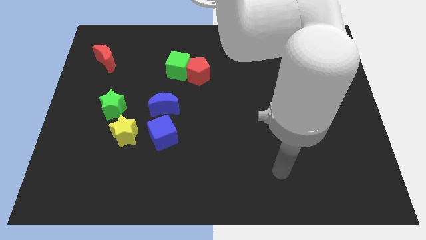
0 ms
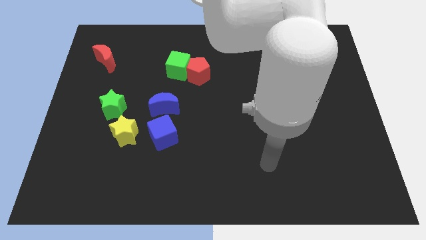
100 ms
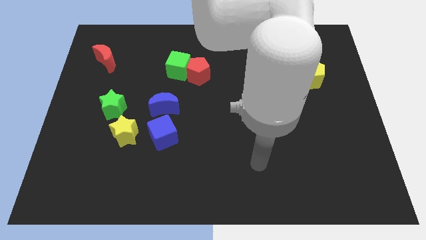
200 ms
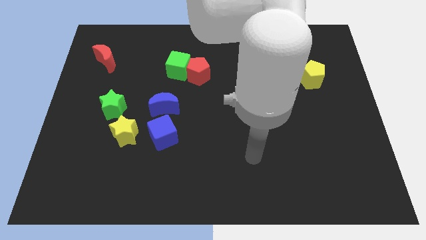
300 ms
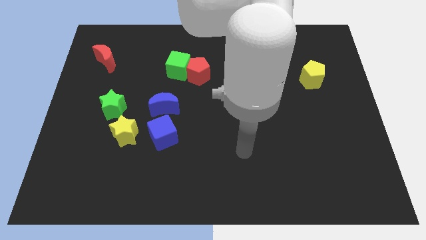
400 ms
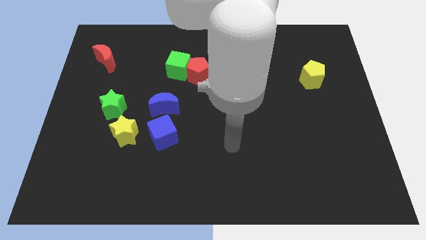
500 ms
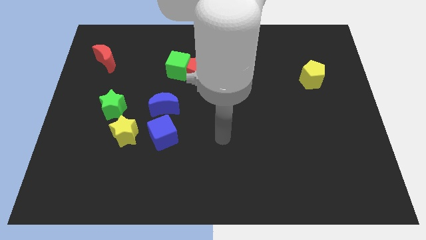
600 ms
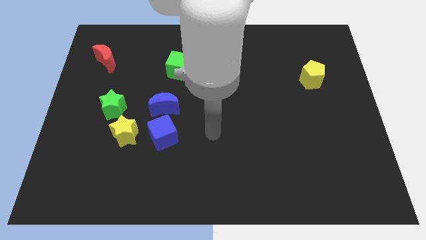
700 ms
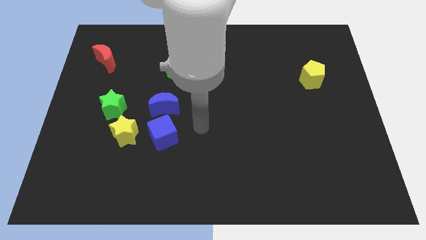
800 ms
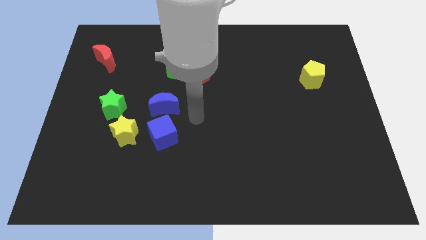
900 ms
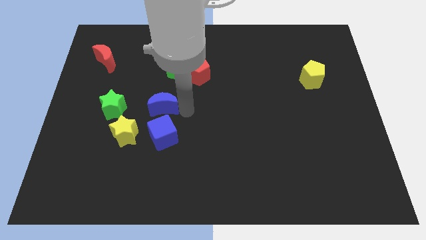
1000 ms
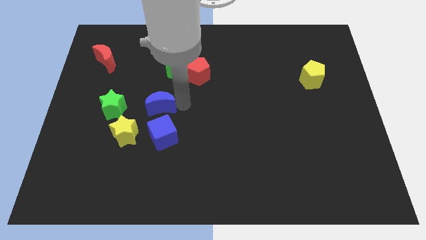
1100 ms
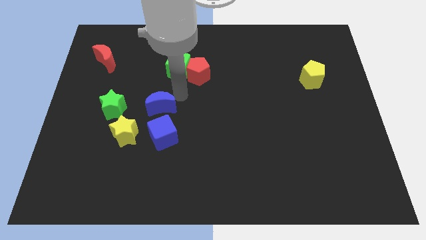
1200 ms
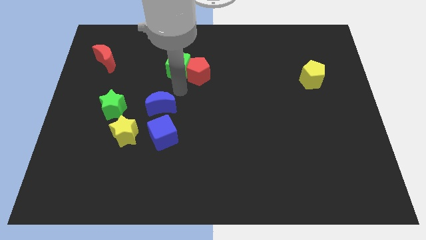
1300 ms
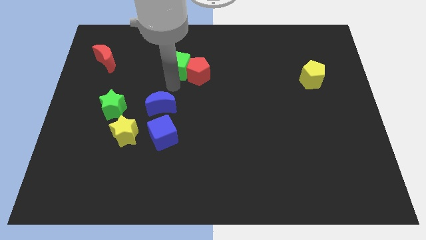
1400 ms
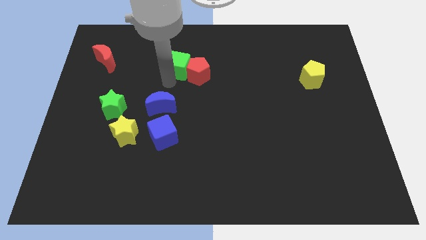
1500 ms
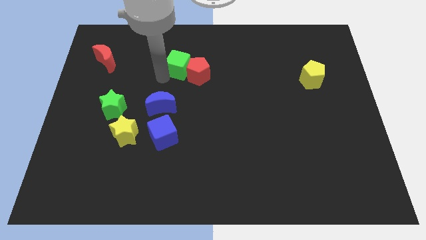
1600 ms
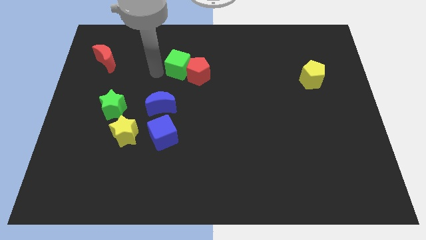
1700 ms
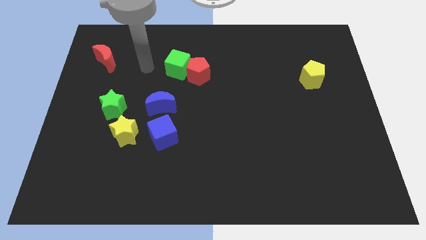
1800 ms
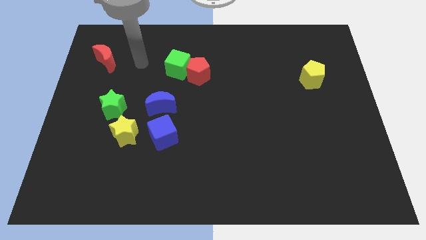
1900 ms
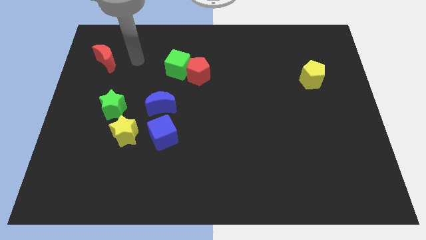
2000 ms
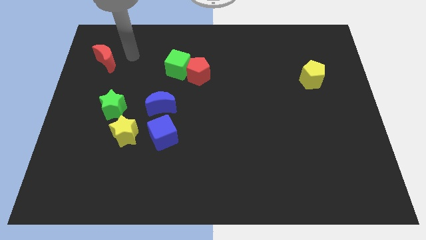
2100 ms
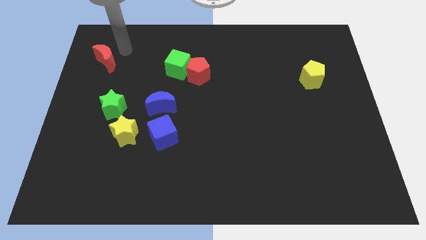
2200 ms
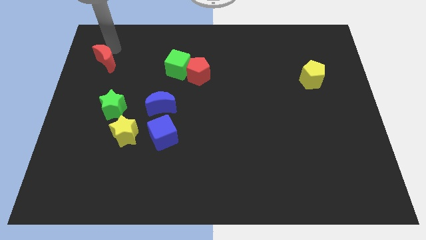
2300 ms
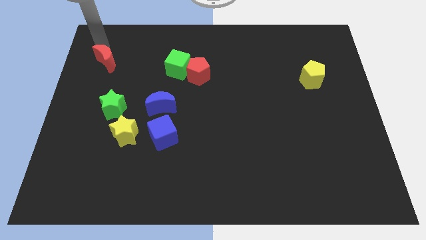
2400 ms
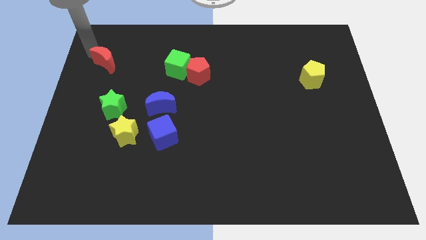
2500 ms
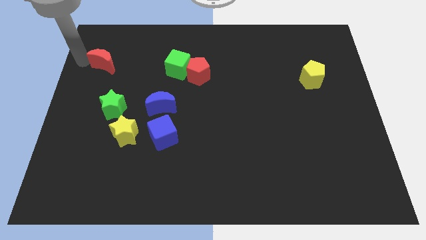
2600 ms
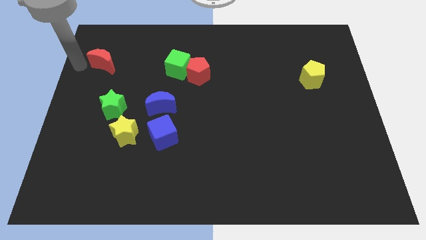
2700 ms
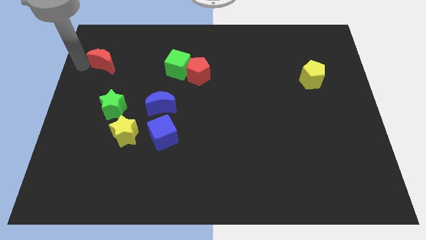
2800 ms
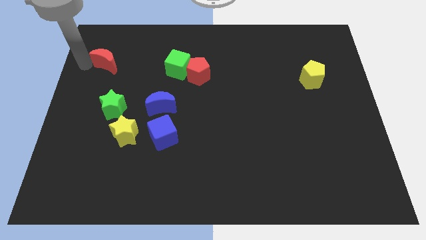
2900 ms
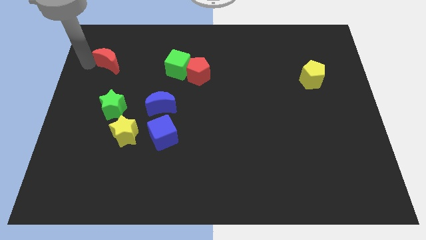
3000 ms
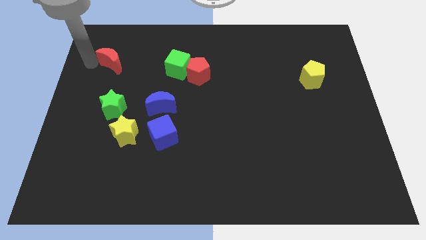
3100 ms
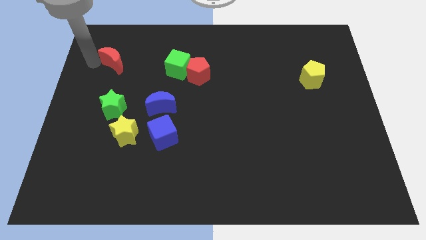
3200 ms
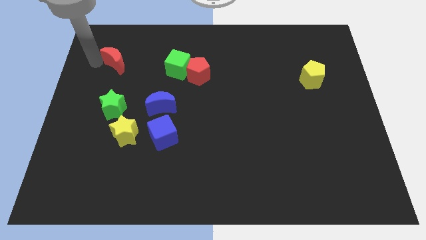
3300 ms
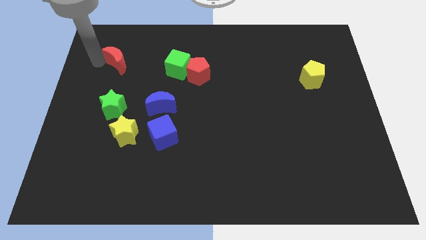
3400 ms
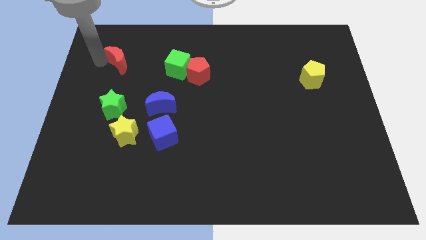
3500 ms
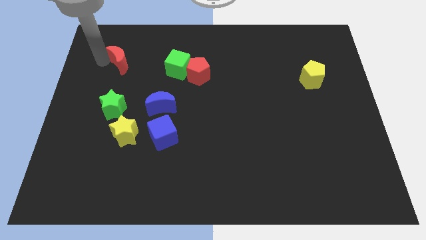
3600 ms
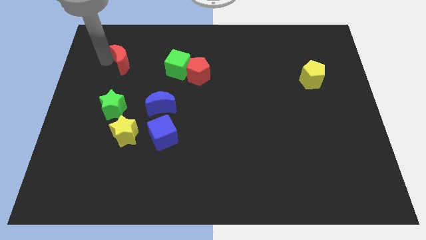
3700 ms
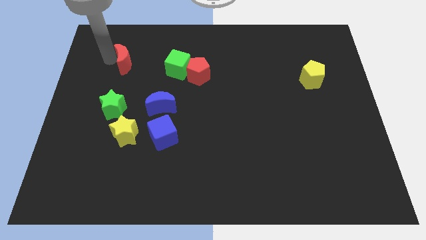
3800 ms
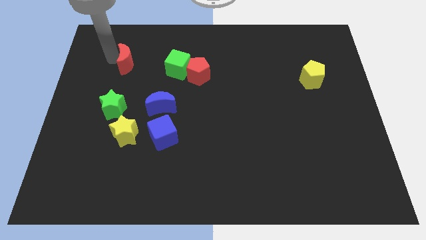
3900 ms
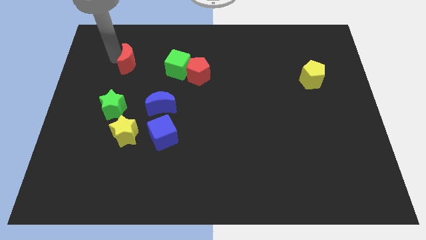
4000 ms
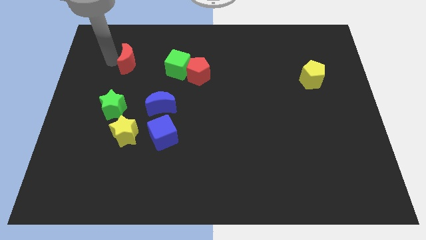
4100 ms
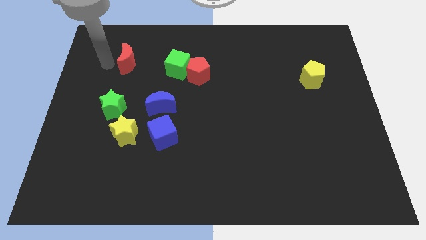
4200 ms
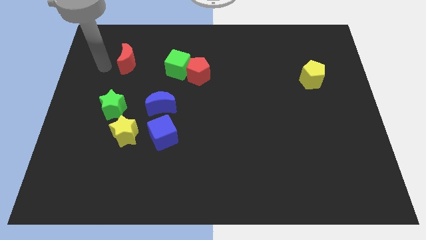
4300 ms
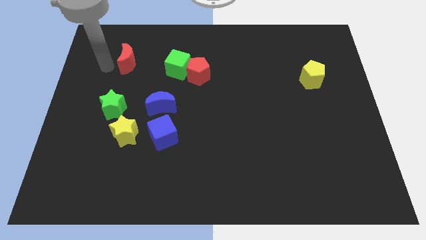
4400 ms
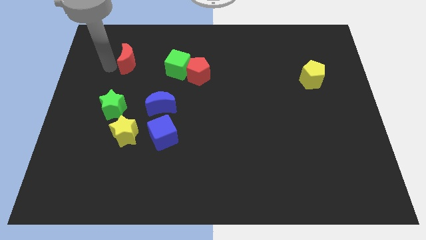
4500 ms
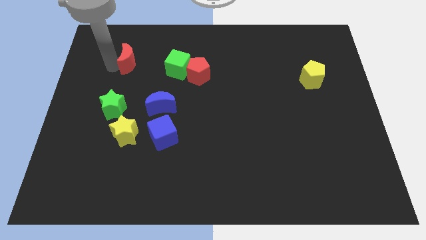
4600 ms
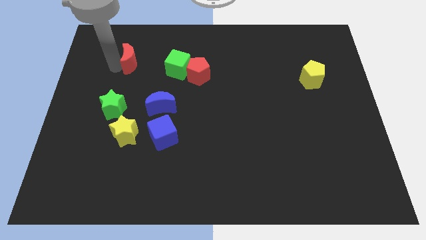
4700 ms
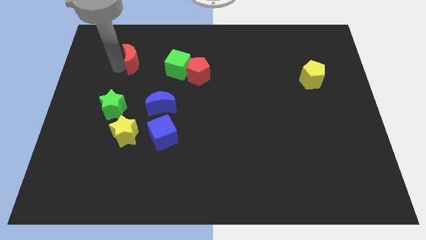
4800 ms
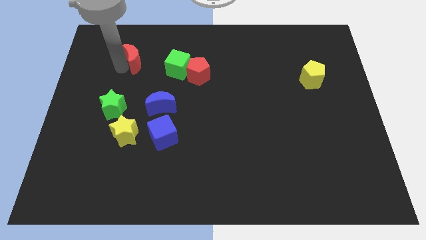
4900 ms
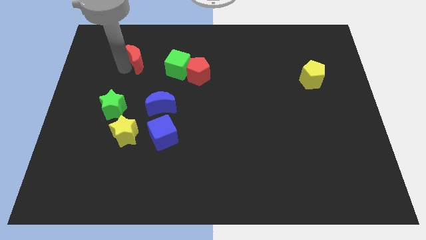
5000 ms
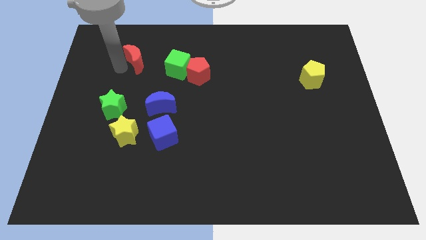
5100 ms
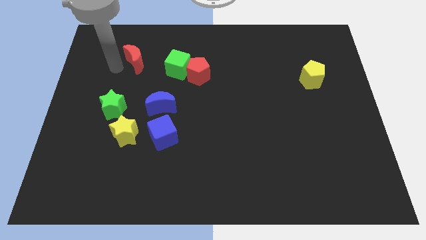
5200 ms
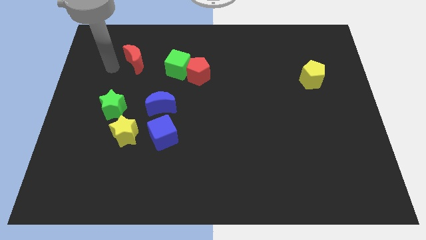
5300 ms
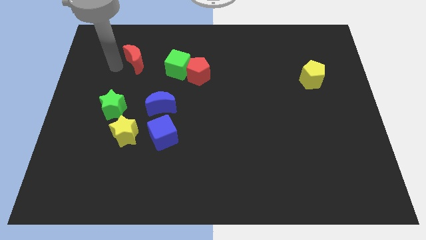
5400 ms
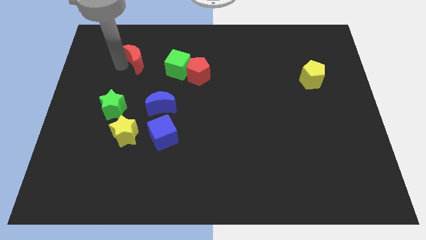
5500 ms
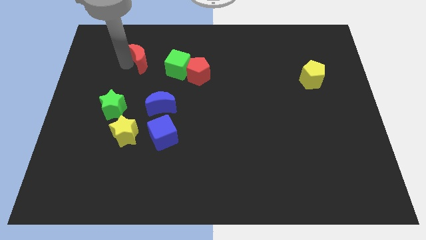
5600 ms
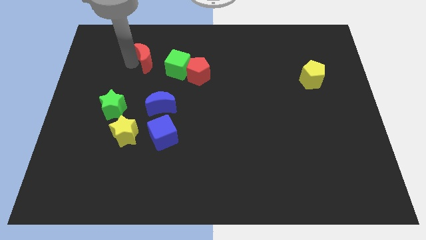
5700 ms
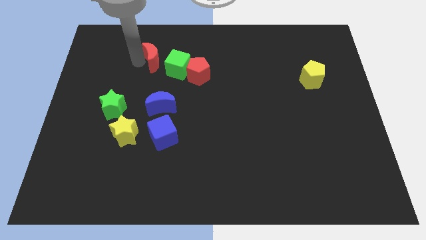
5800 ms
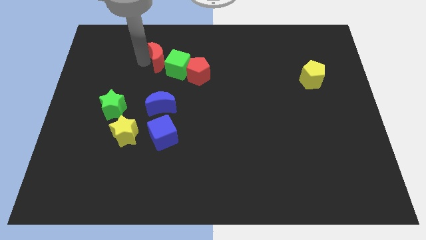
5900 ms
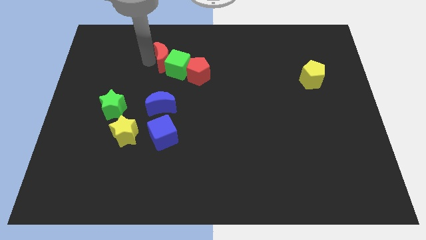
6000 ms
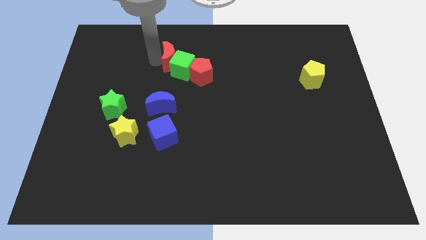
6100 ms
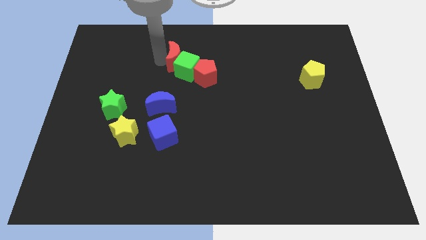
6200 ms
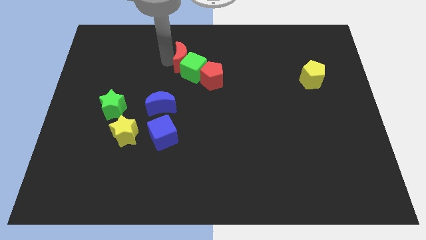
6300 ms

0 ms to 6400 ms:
push the red moon right

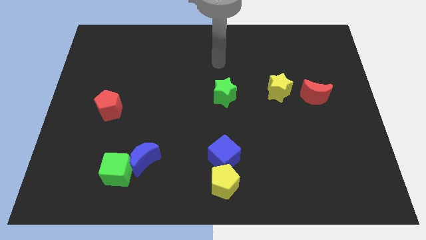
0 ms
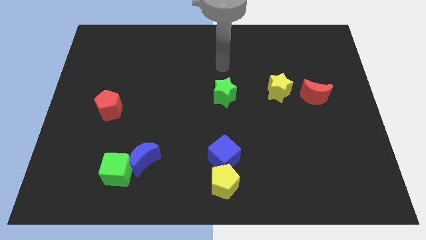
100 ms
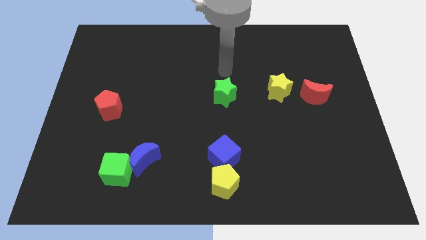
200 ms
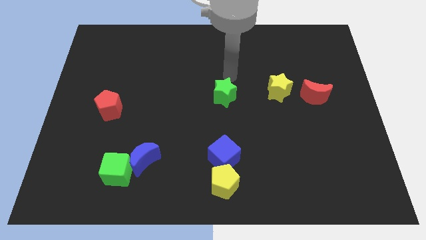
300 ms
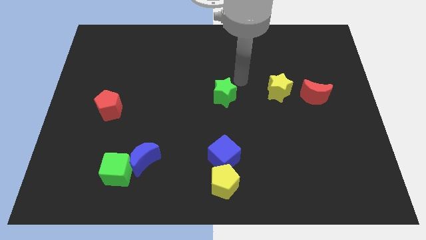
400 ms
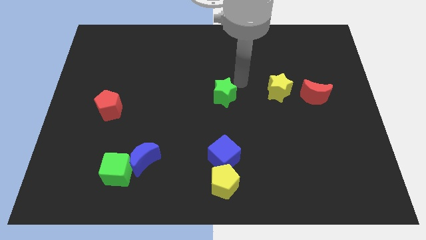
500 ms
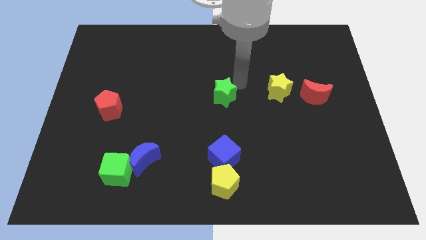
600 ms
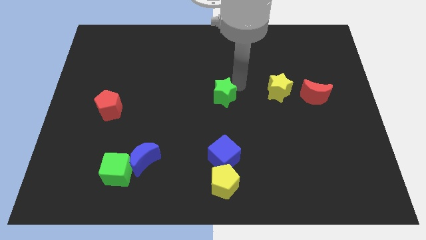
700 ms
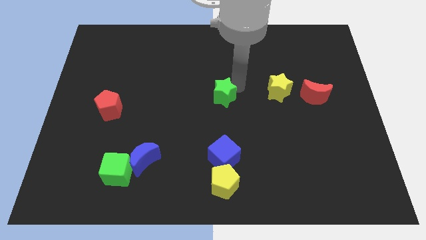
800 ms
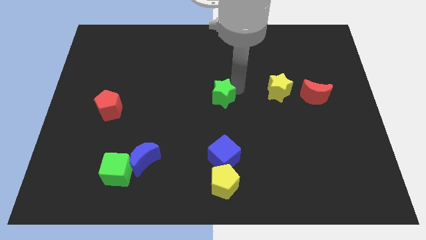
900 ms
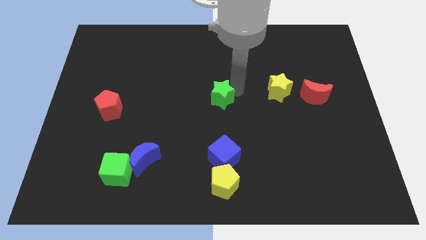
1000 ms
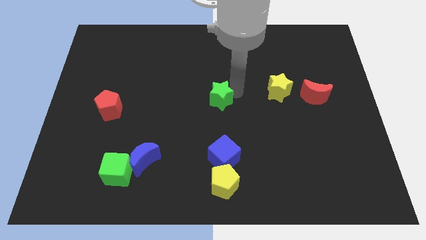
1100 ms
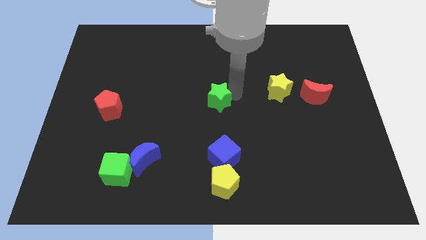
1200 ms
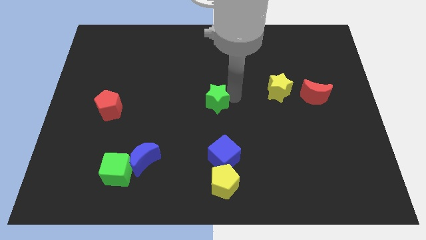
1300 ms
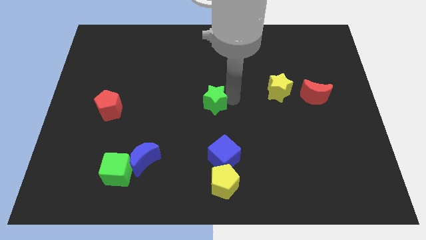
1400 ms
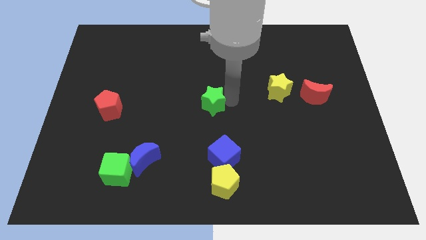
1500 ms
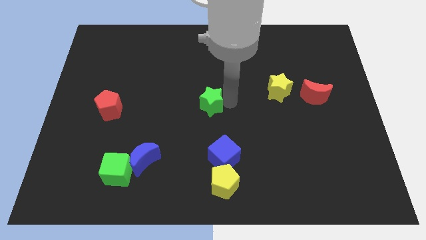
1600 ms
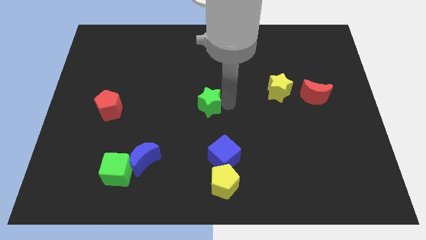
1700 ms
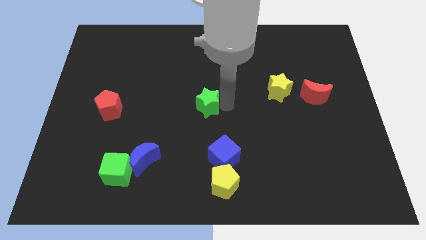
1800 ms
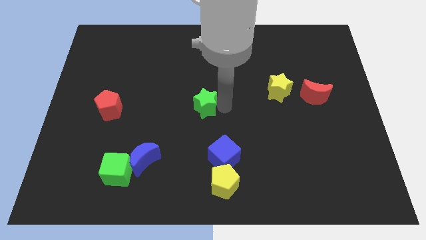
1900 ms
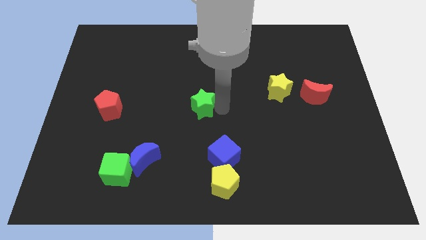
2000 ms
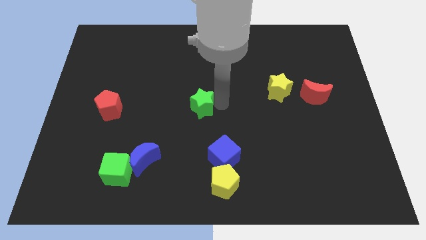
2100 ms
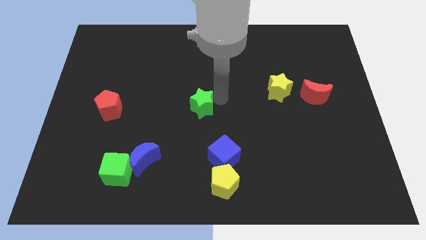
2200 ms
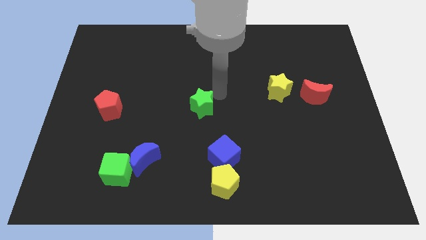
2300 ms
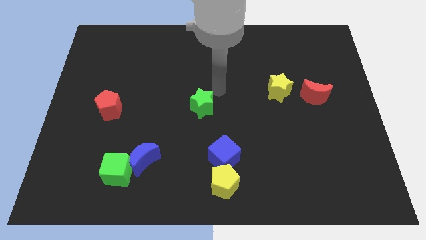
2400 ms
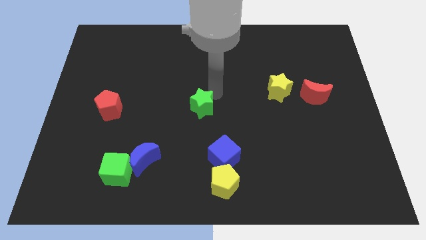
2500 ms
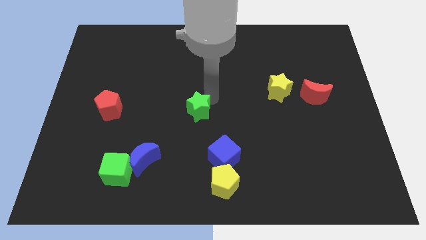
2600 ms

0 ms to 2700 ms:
slightly push the green star diagonally down and left
